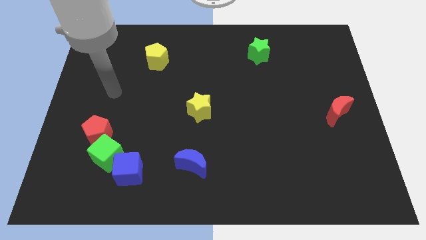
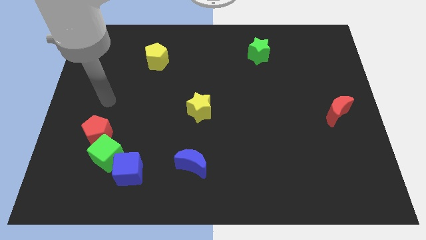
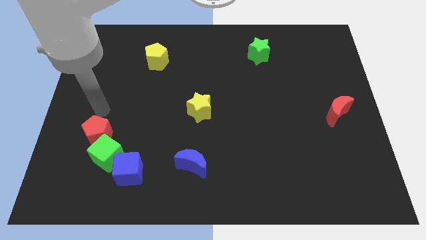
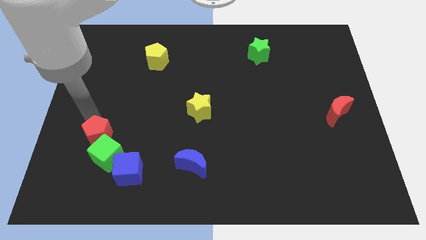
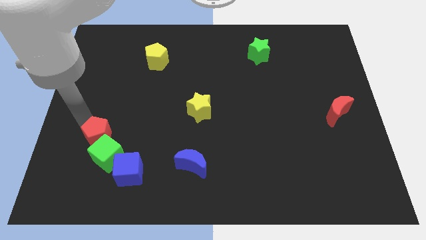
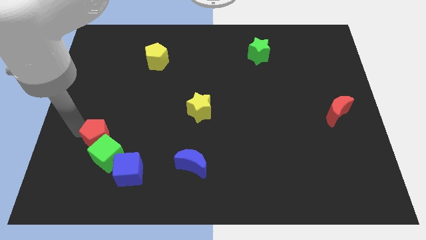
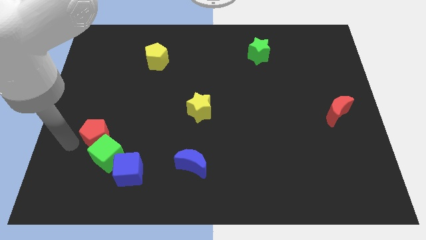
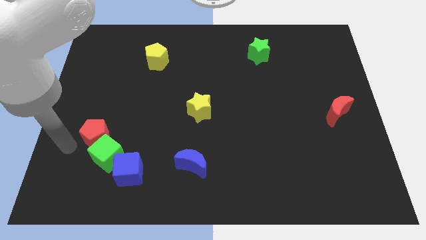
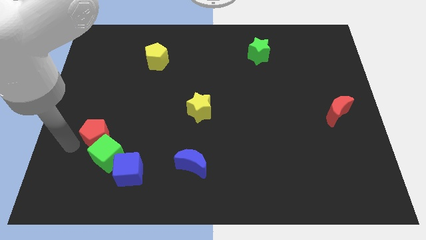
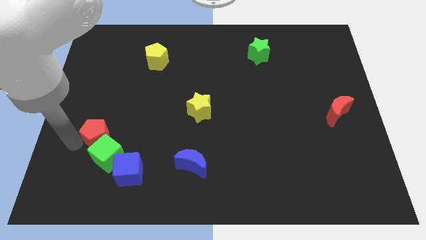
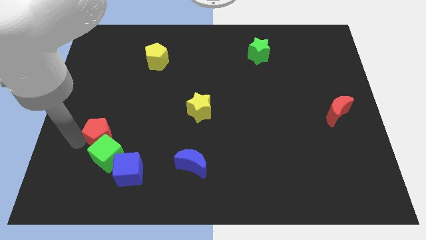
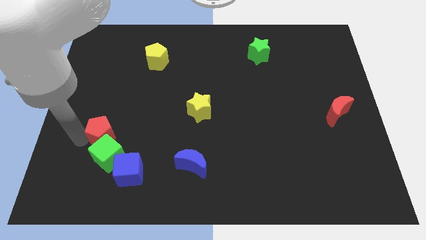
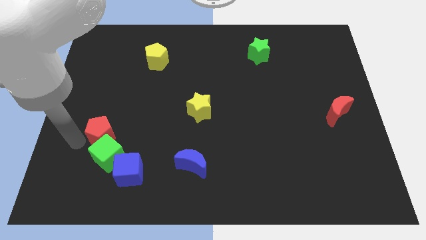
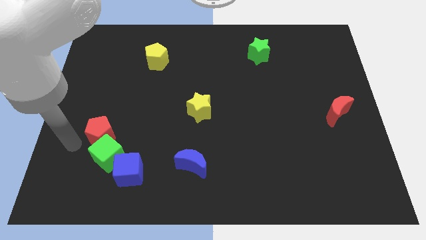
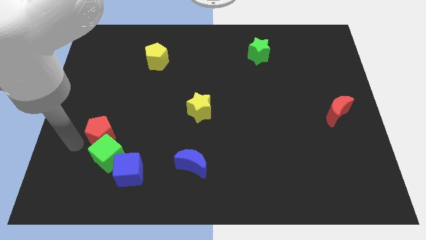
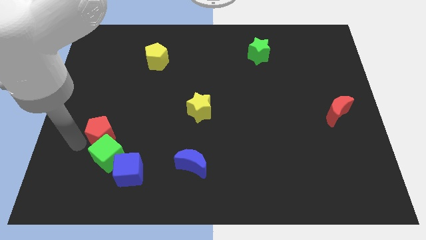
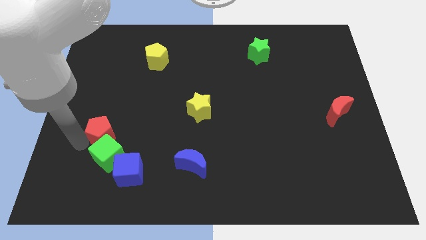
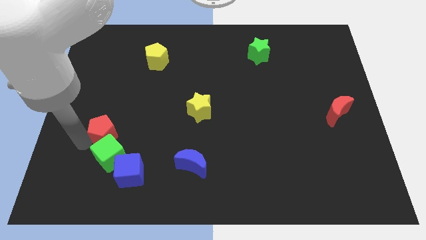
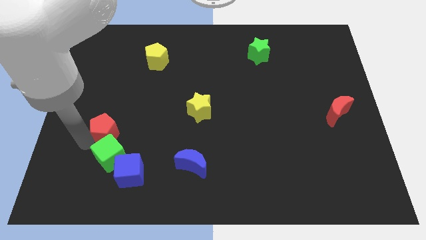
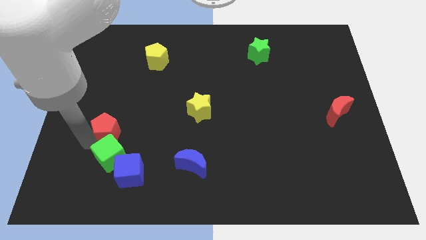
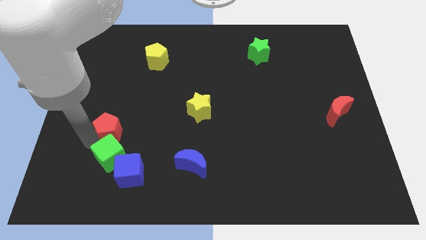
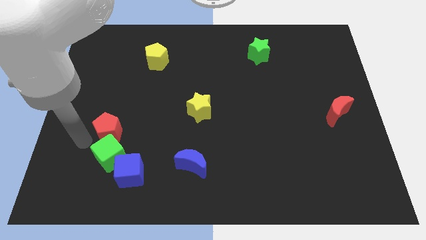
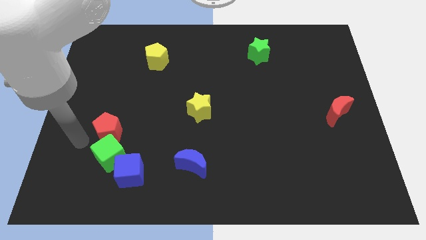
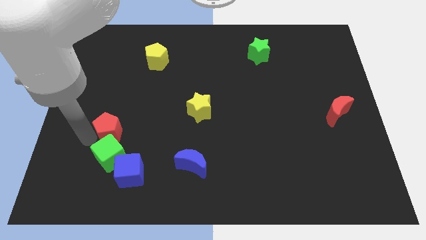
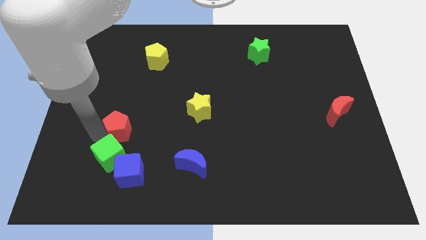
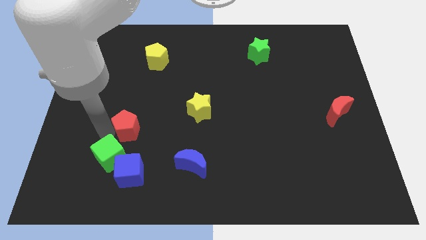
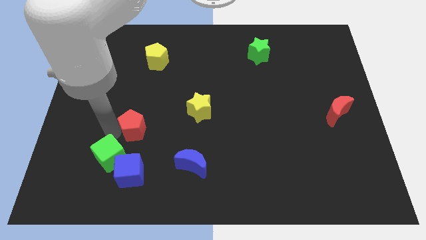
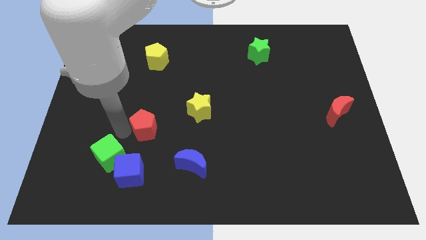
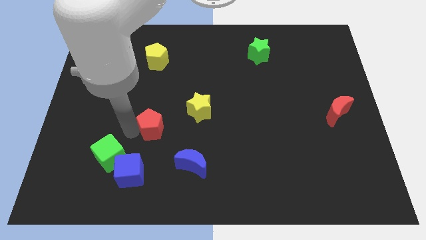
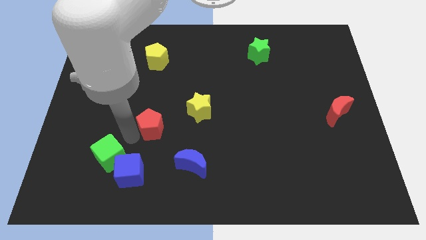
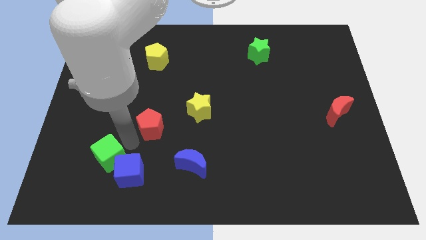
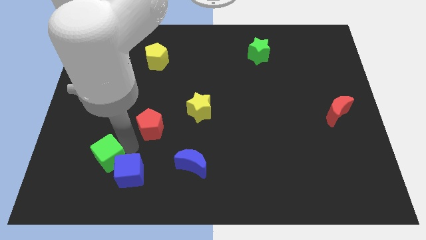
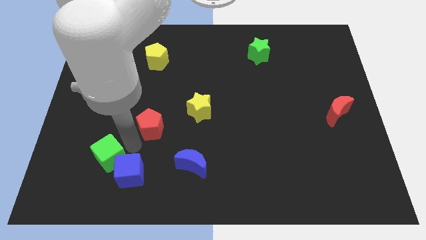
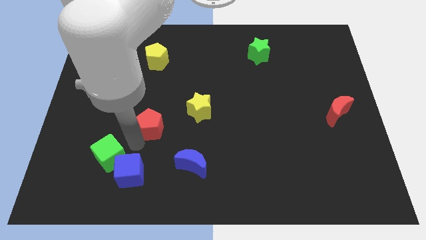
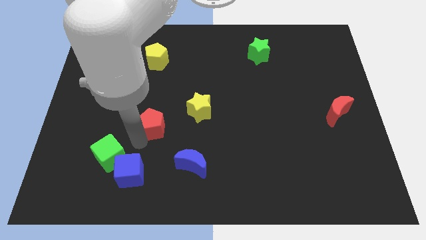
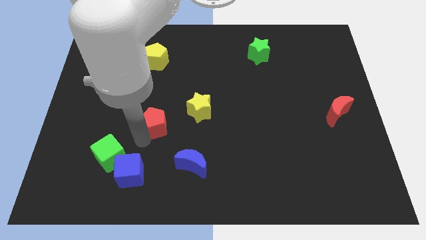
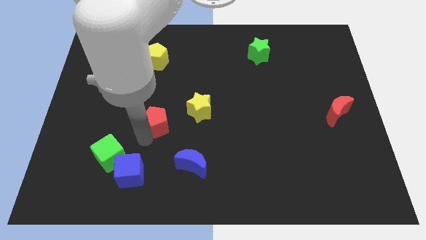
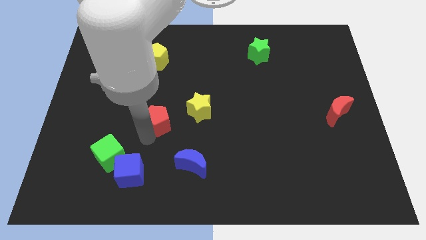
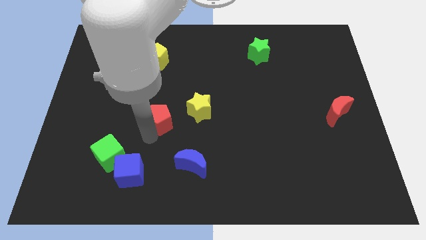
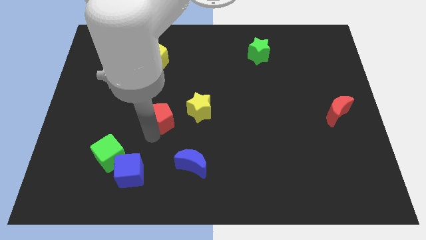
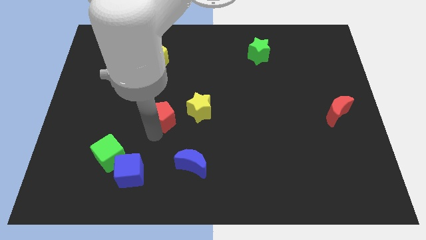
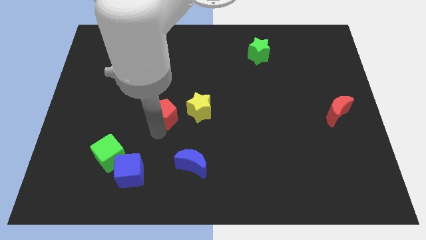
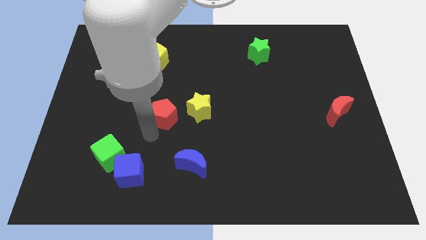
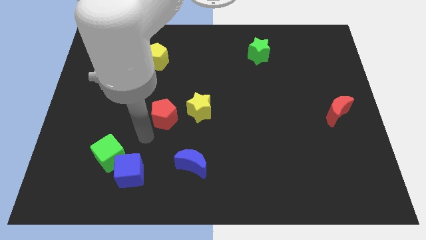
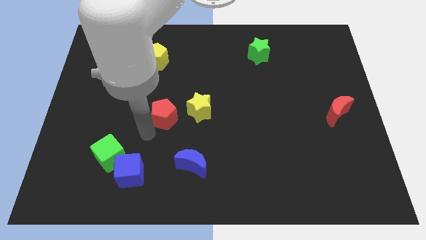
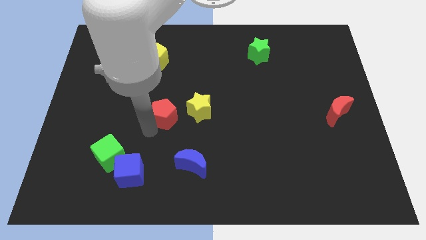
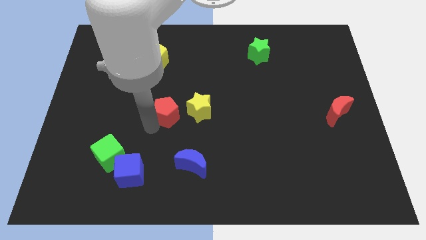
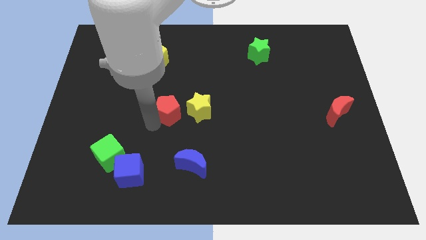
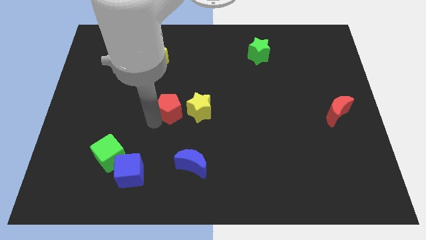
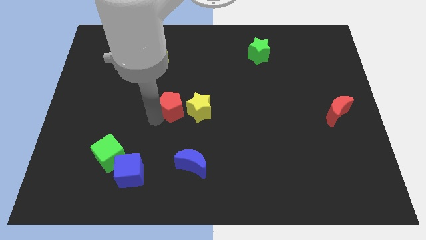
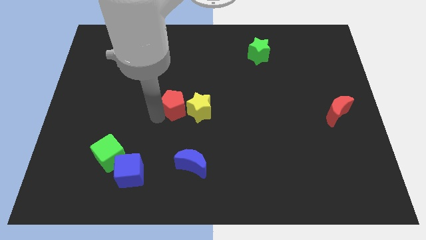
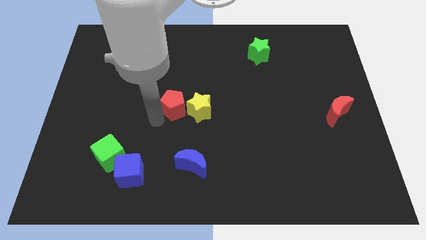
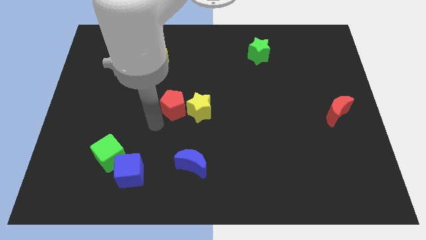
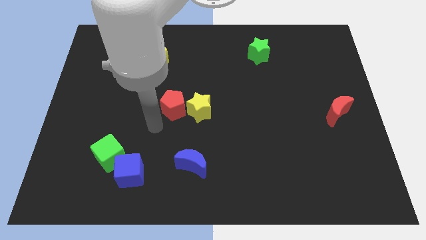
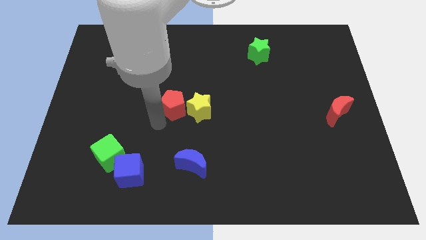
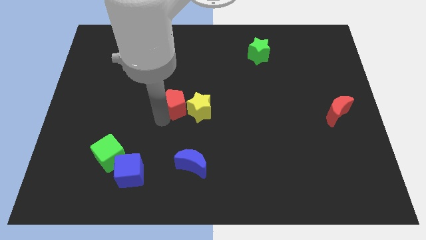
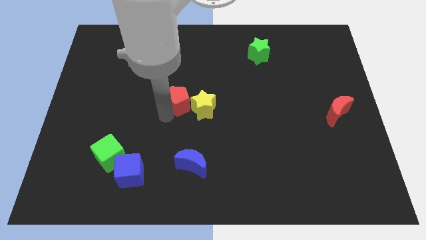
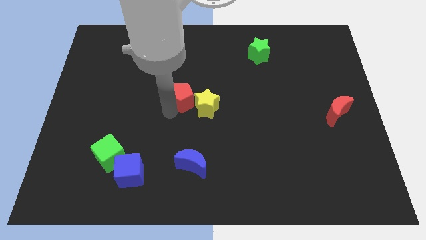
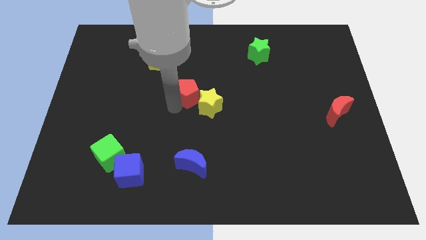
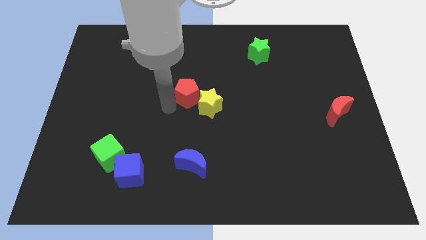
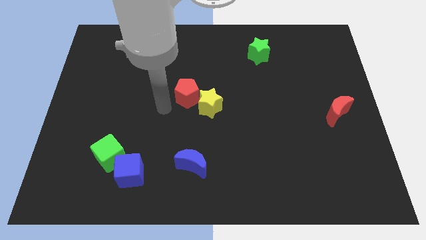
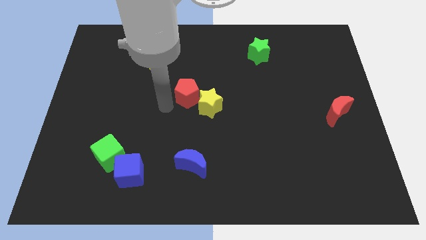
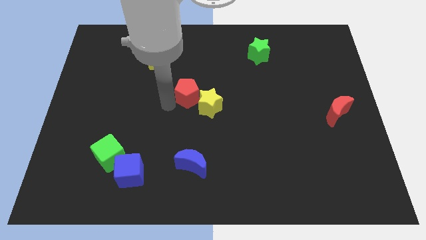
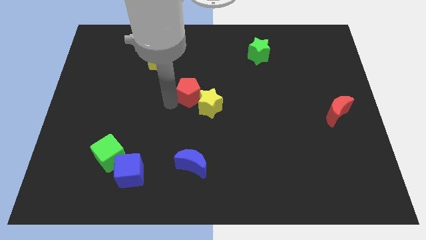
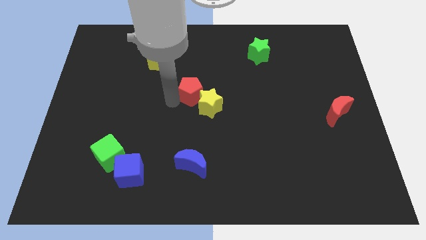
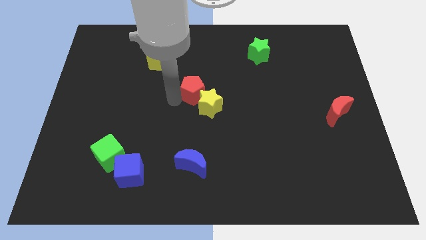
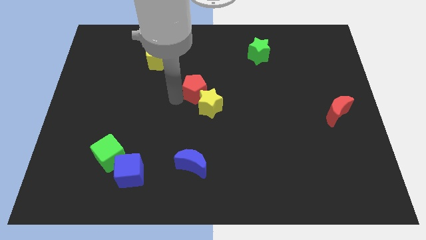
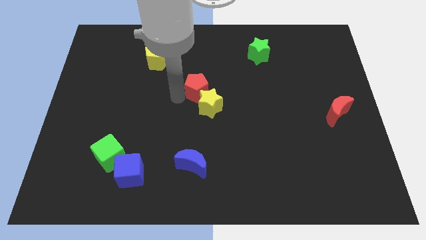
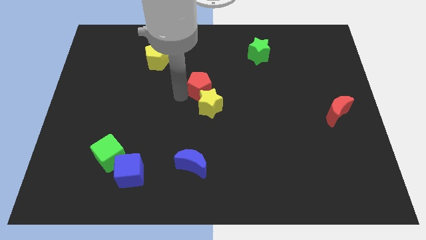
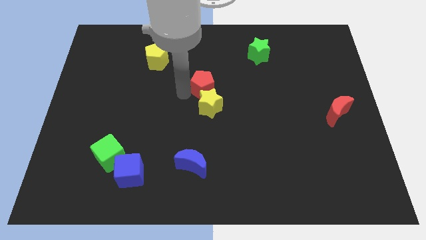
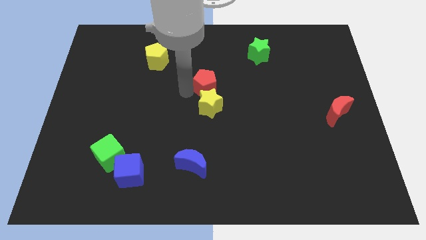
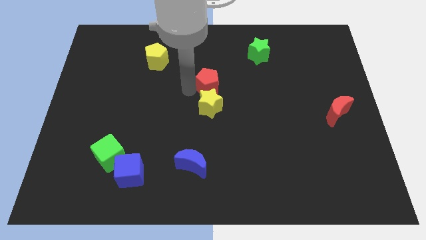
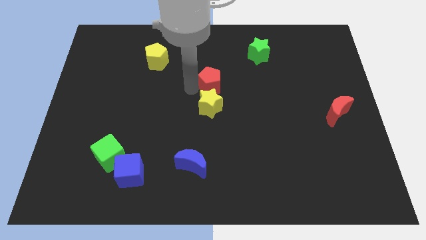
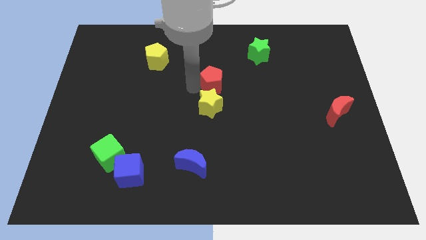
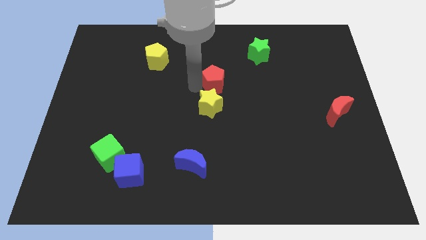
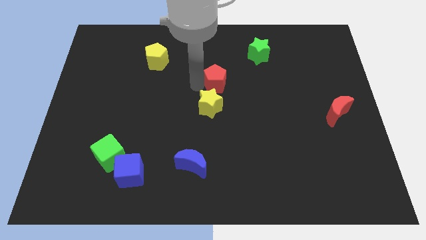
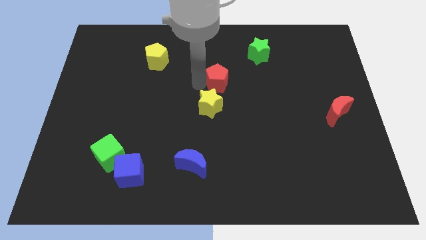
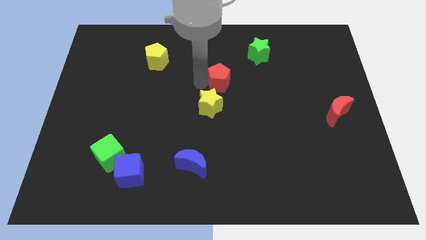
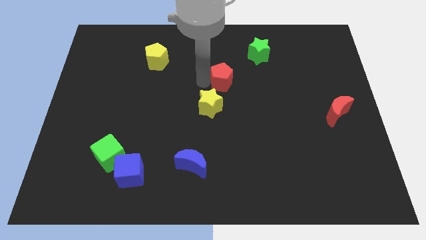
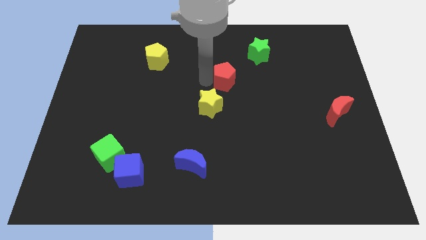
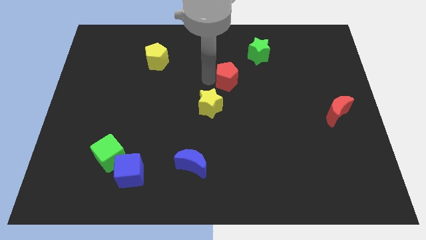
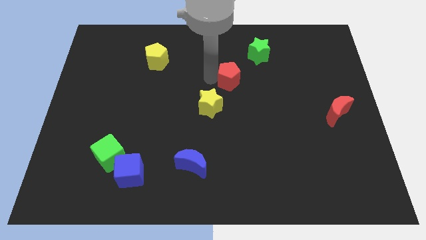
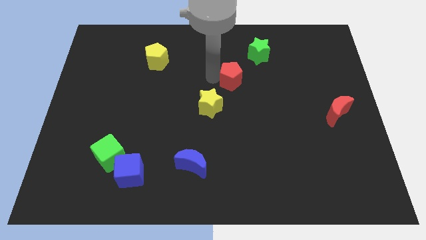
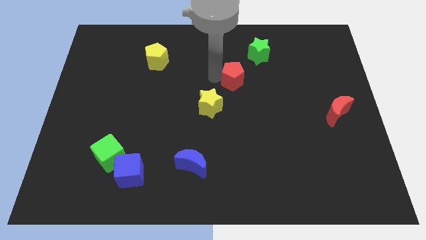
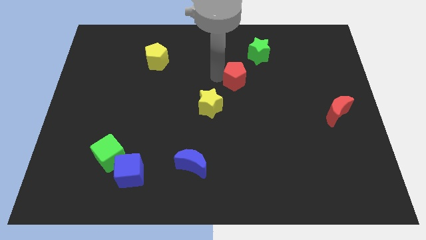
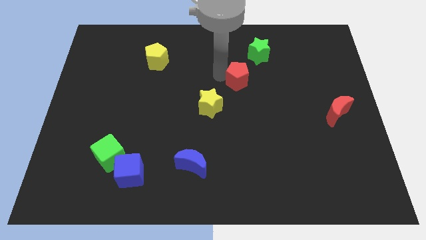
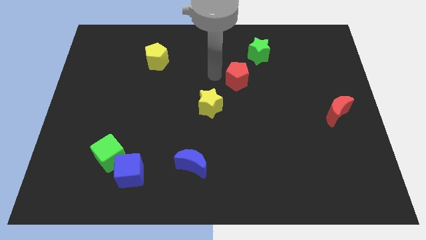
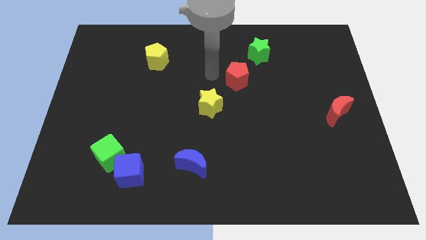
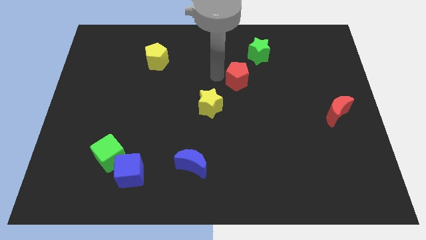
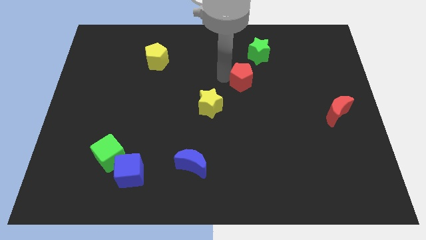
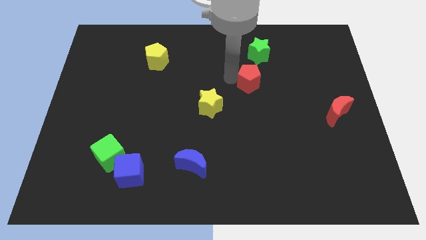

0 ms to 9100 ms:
push the red pentagon to the bottom of the green star
